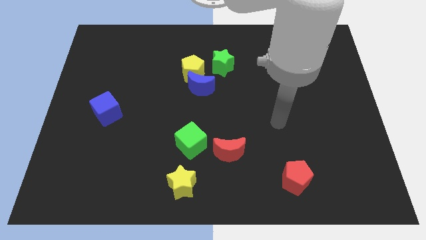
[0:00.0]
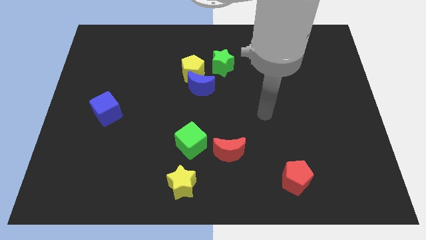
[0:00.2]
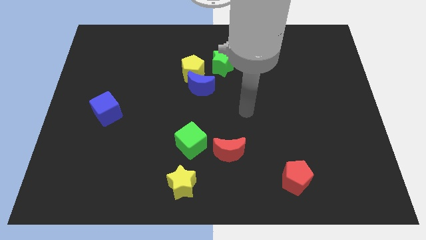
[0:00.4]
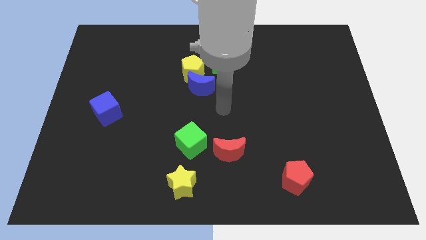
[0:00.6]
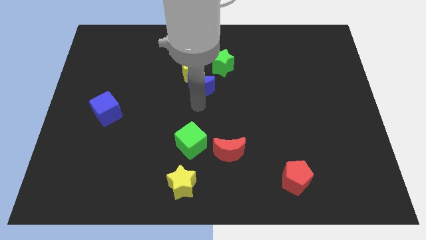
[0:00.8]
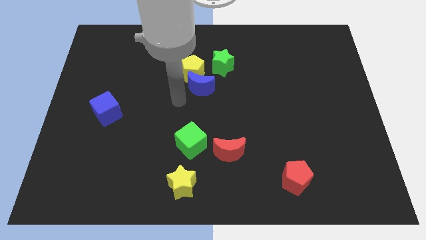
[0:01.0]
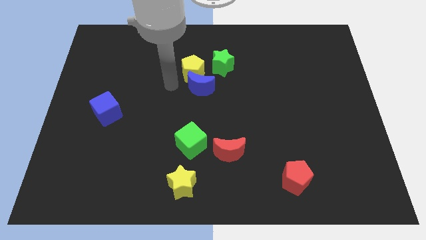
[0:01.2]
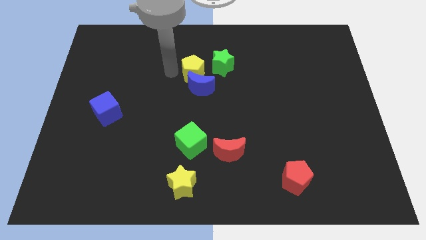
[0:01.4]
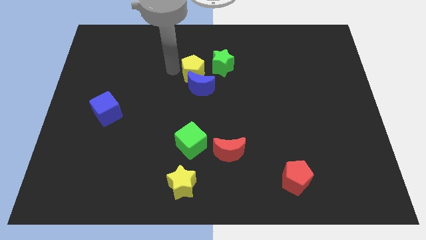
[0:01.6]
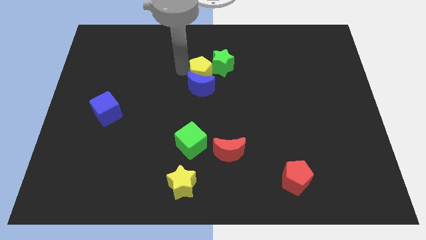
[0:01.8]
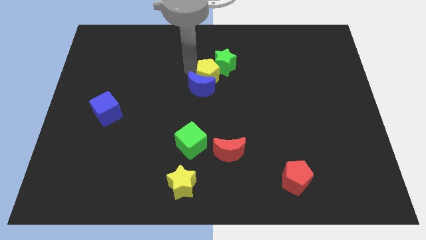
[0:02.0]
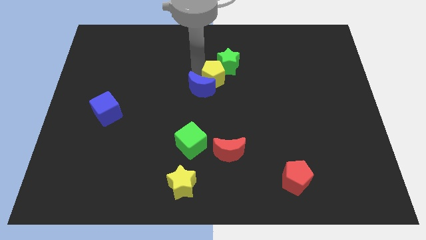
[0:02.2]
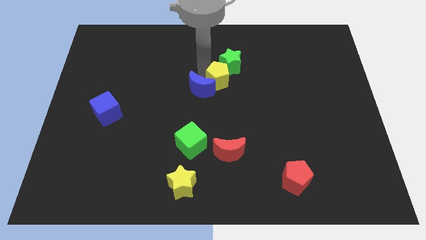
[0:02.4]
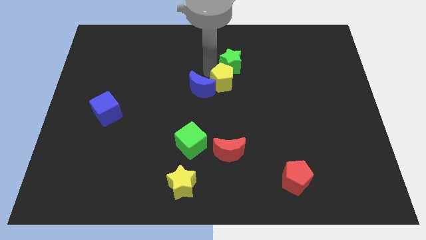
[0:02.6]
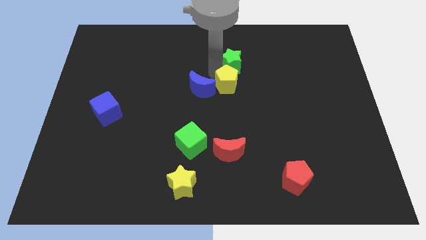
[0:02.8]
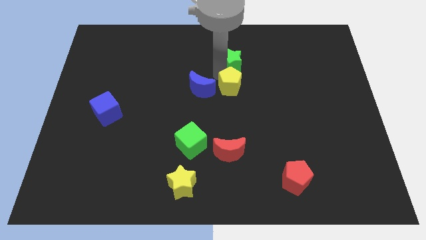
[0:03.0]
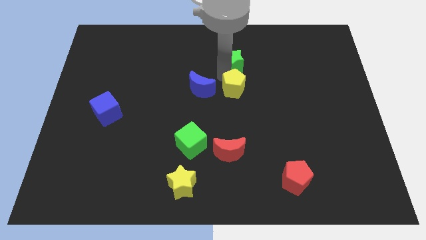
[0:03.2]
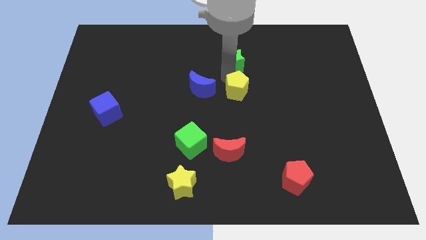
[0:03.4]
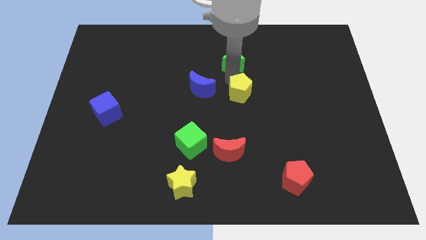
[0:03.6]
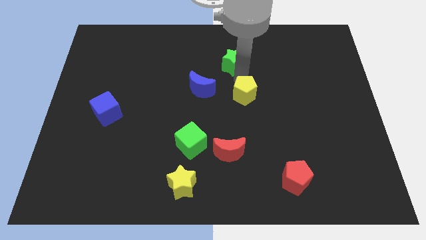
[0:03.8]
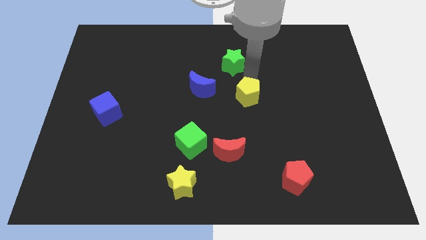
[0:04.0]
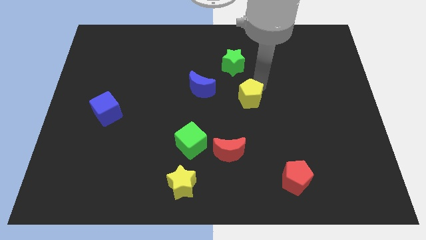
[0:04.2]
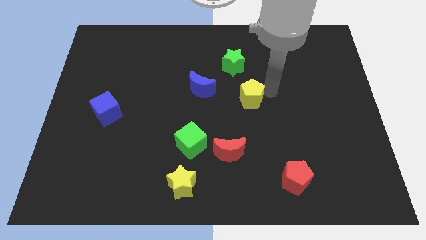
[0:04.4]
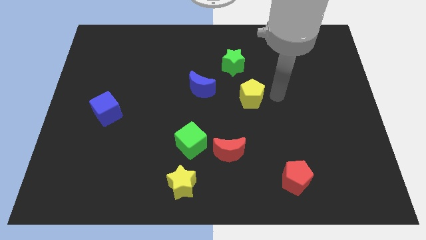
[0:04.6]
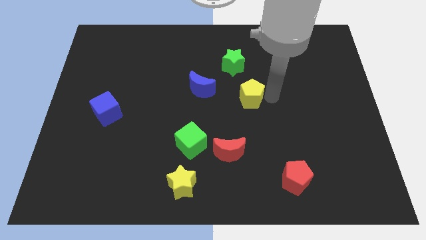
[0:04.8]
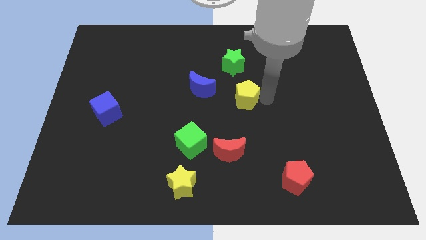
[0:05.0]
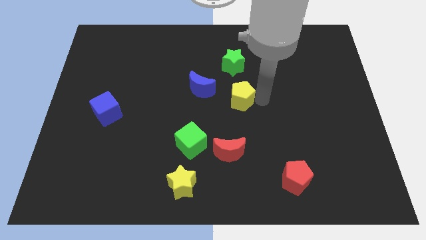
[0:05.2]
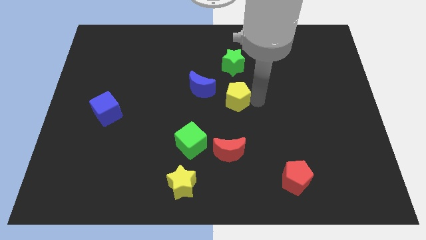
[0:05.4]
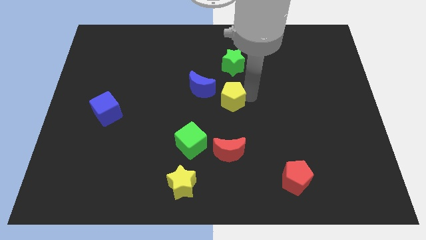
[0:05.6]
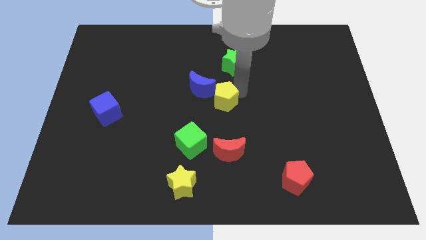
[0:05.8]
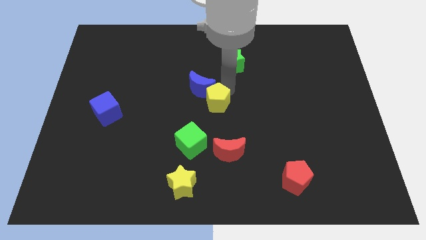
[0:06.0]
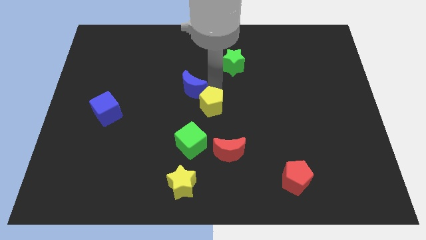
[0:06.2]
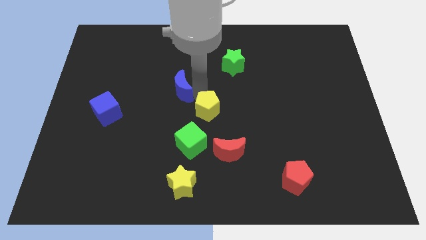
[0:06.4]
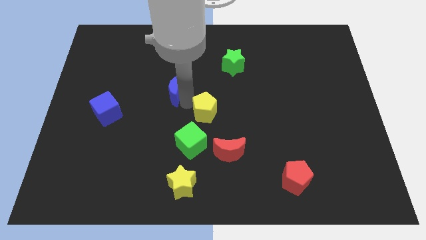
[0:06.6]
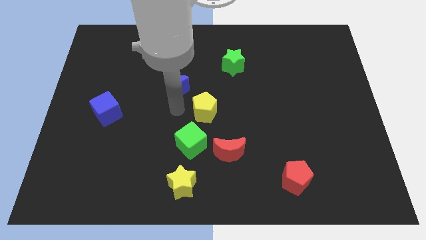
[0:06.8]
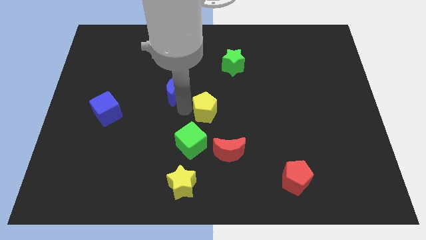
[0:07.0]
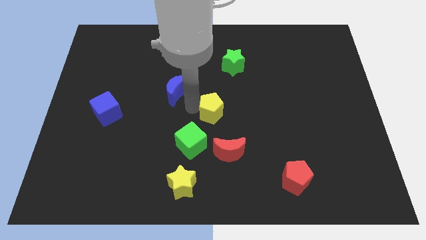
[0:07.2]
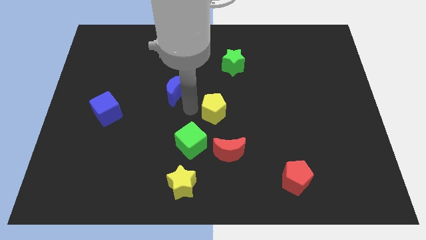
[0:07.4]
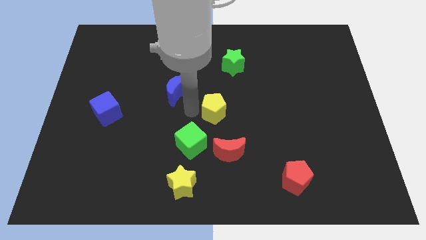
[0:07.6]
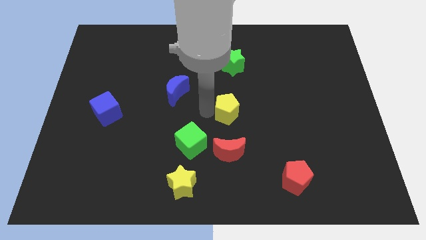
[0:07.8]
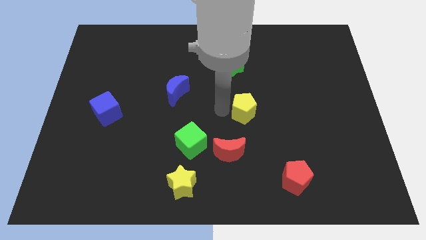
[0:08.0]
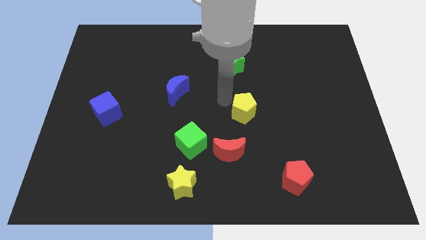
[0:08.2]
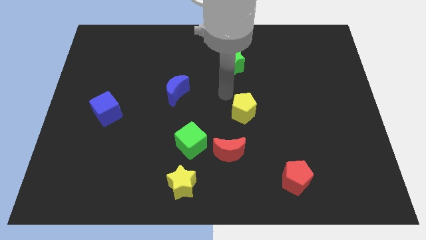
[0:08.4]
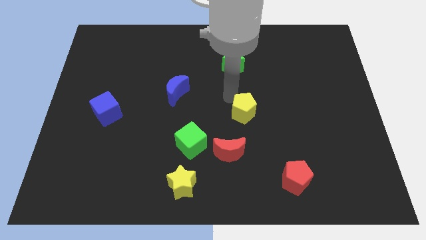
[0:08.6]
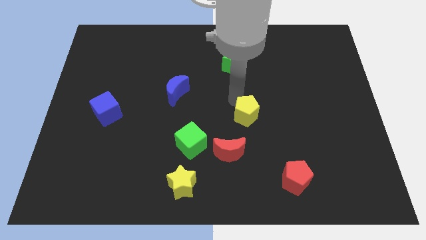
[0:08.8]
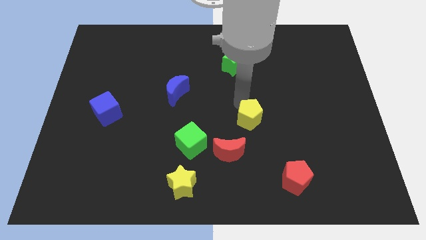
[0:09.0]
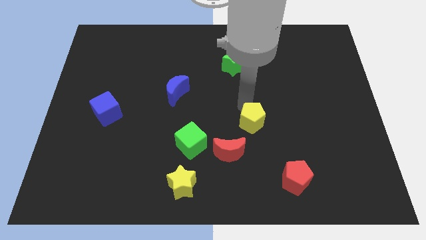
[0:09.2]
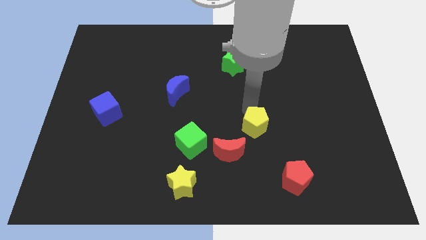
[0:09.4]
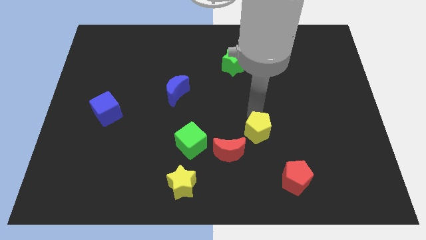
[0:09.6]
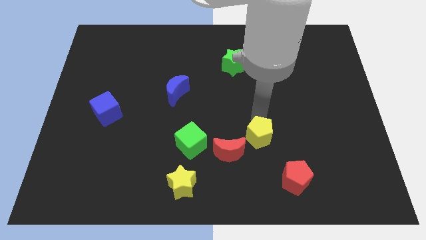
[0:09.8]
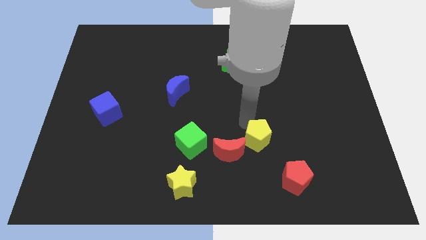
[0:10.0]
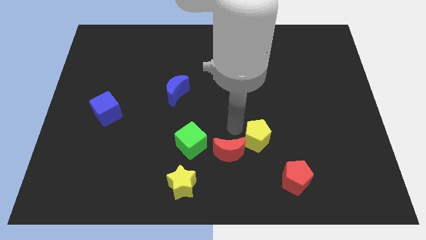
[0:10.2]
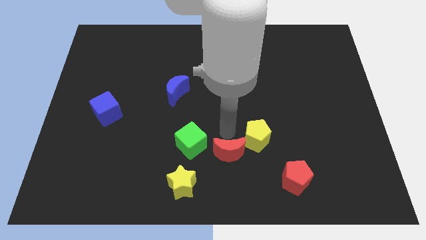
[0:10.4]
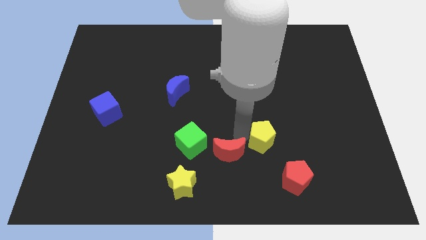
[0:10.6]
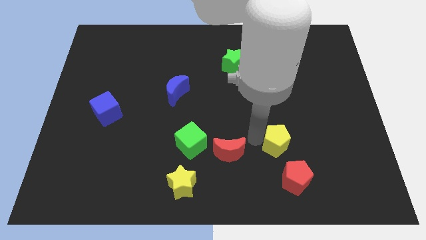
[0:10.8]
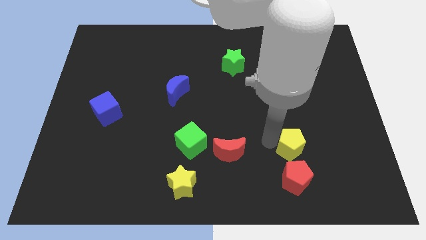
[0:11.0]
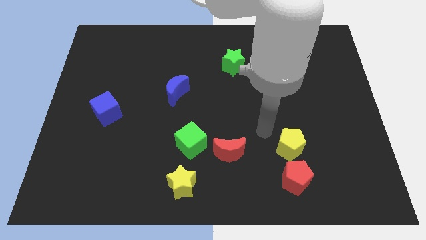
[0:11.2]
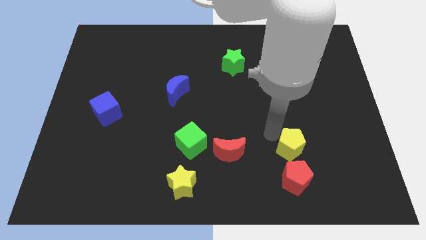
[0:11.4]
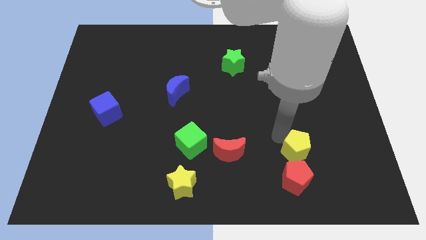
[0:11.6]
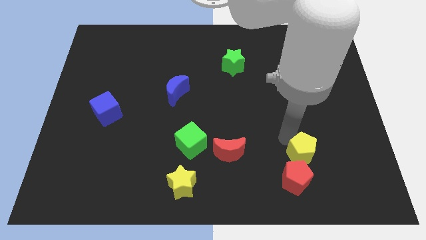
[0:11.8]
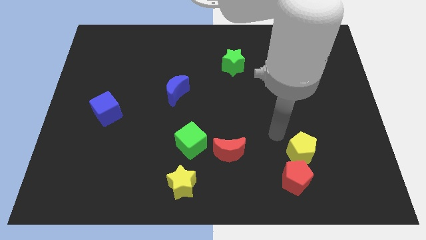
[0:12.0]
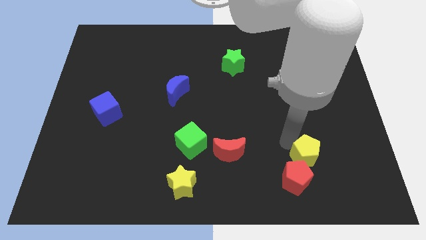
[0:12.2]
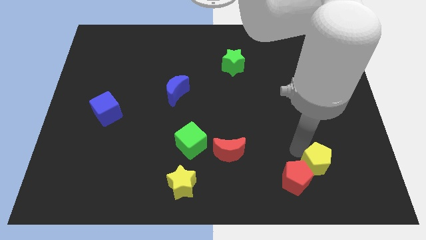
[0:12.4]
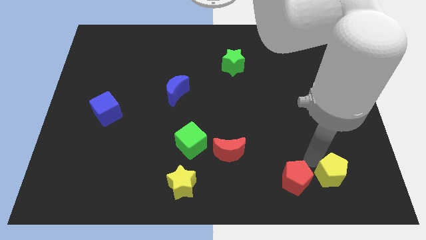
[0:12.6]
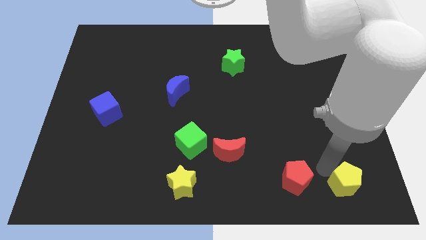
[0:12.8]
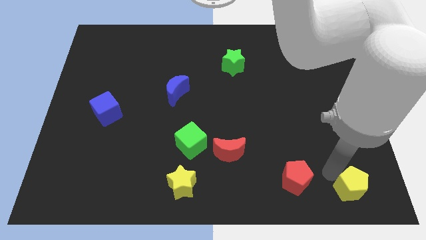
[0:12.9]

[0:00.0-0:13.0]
move the yellow pentagon to the bottom right corner

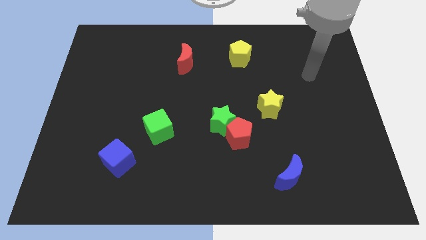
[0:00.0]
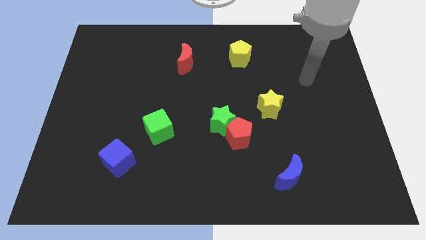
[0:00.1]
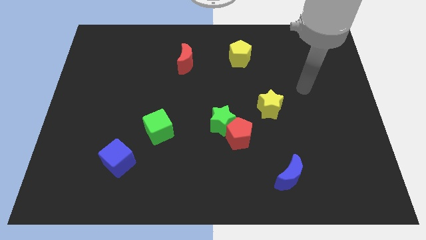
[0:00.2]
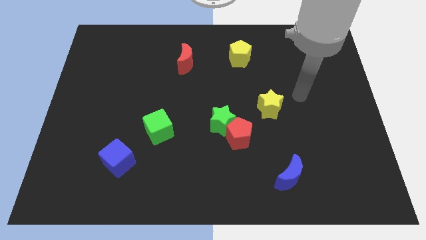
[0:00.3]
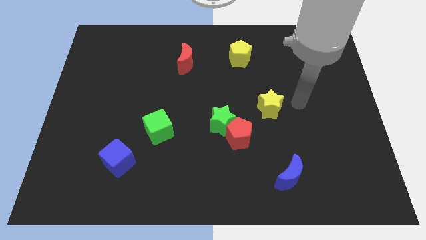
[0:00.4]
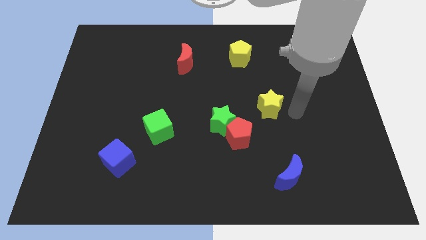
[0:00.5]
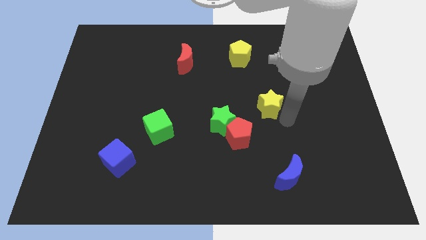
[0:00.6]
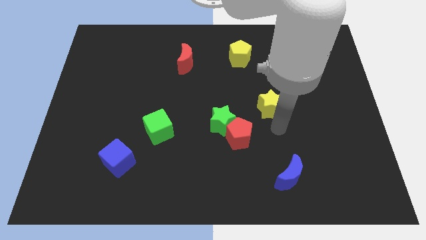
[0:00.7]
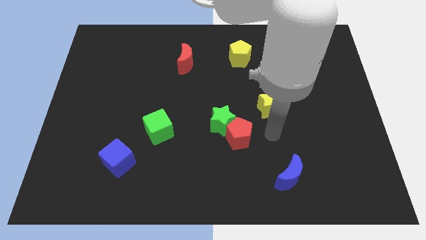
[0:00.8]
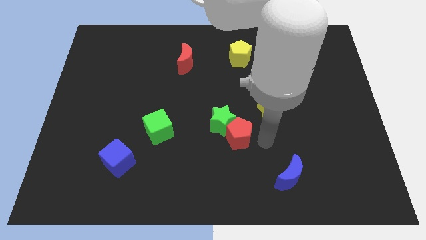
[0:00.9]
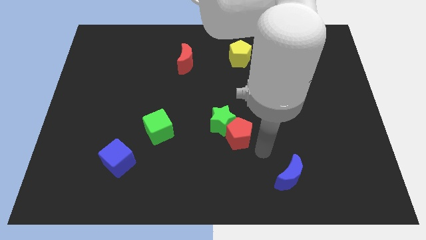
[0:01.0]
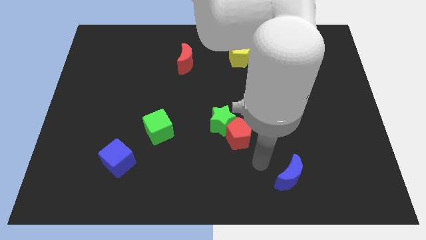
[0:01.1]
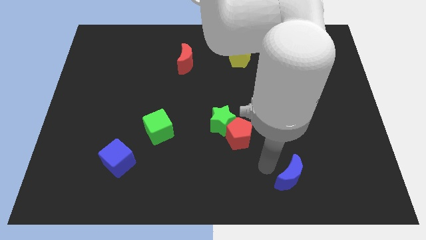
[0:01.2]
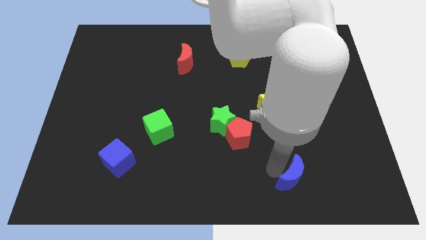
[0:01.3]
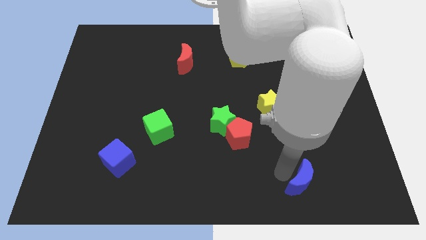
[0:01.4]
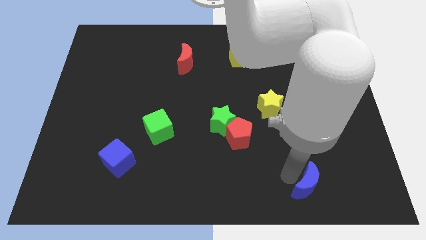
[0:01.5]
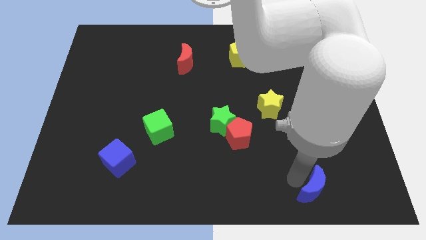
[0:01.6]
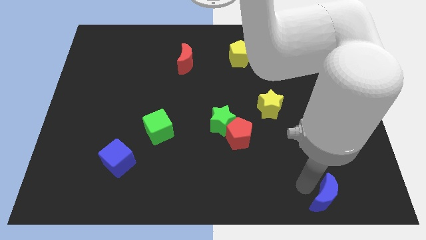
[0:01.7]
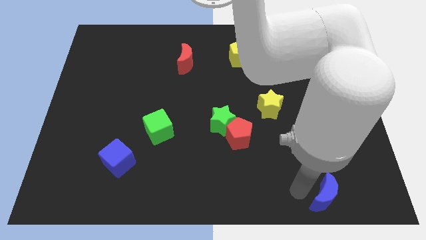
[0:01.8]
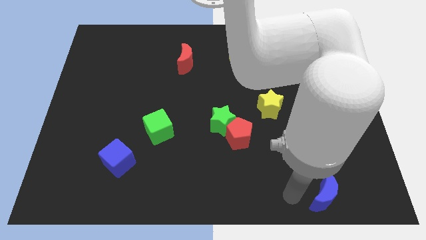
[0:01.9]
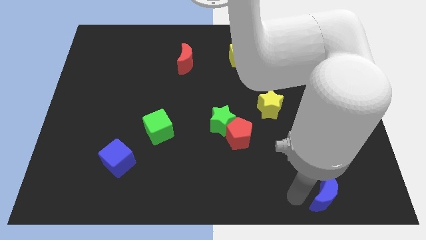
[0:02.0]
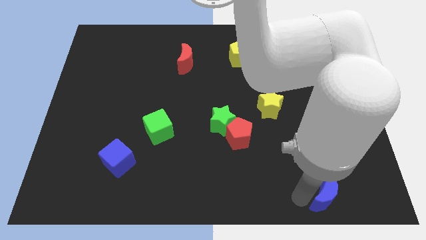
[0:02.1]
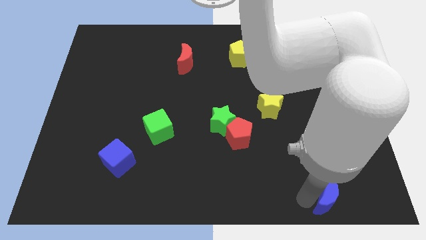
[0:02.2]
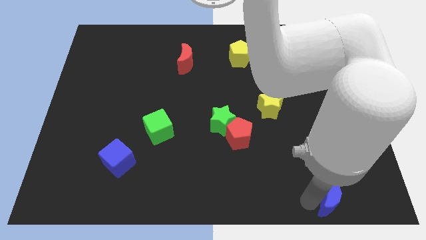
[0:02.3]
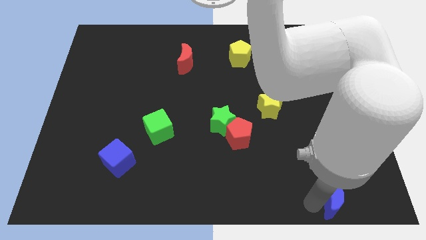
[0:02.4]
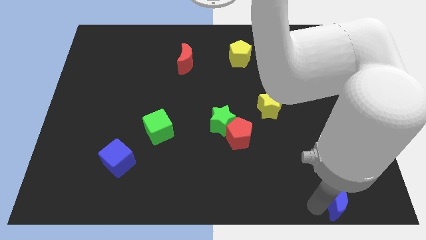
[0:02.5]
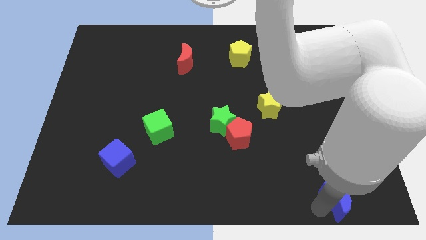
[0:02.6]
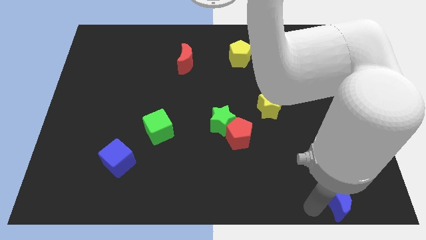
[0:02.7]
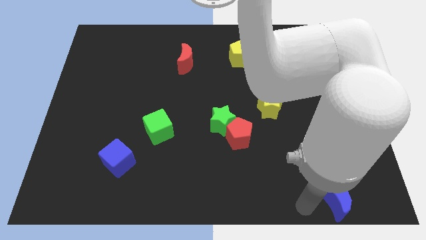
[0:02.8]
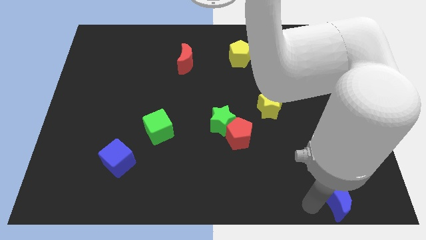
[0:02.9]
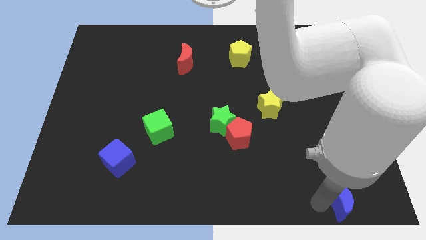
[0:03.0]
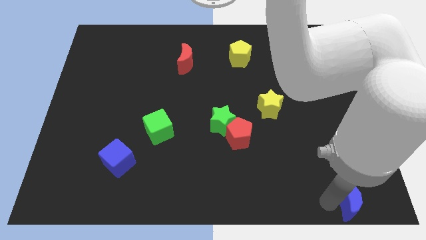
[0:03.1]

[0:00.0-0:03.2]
push the blue moon to the lower right corner
